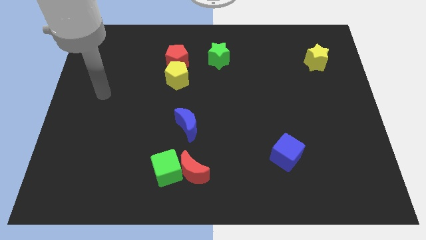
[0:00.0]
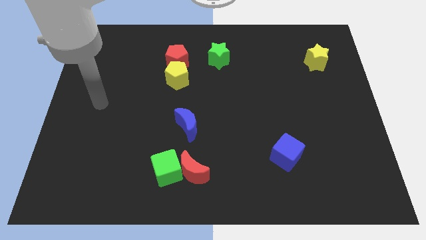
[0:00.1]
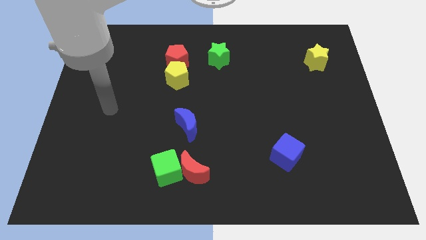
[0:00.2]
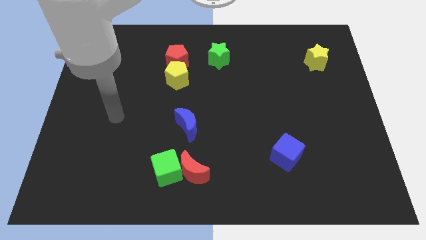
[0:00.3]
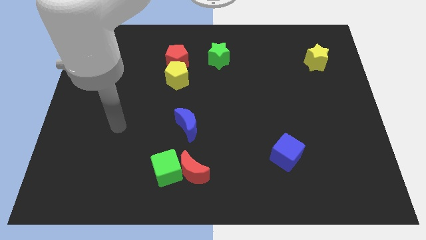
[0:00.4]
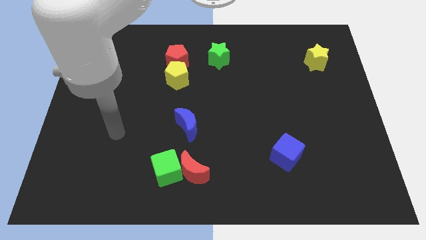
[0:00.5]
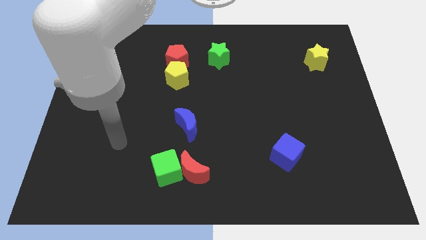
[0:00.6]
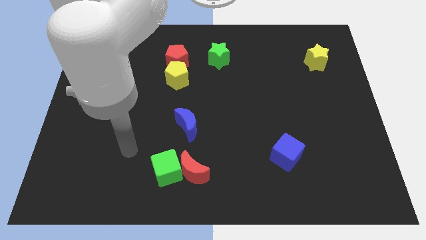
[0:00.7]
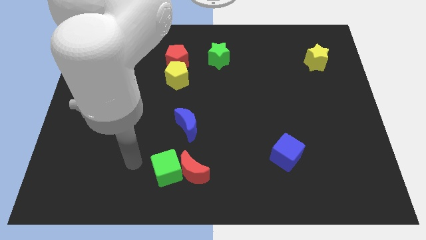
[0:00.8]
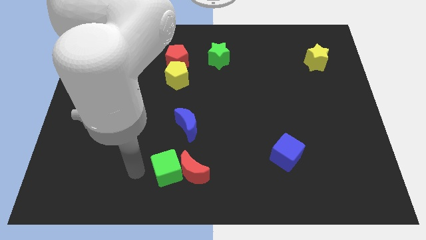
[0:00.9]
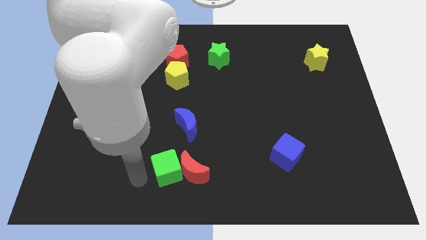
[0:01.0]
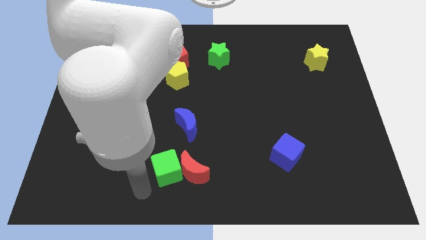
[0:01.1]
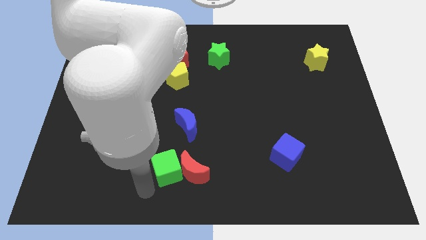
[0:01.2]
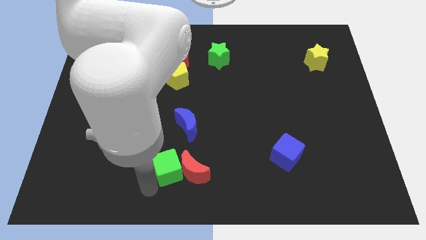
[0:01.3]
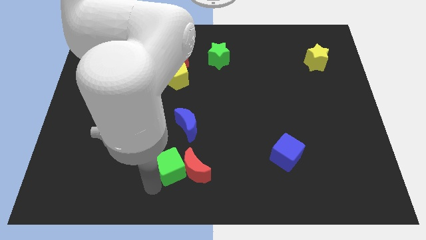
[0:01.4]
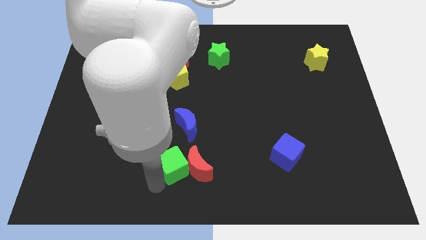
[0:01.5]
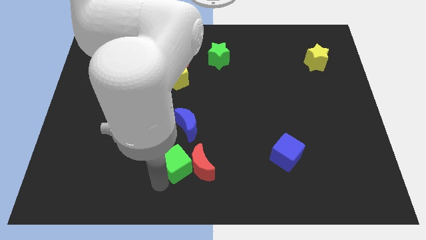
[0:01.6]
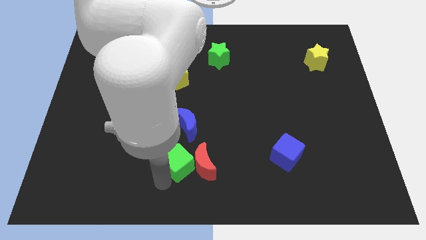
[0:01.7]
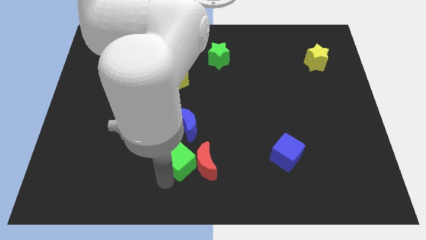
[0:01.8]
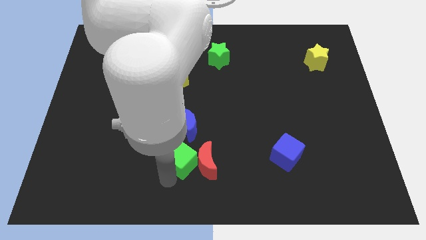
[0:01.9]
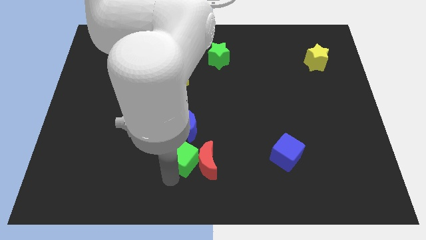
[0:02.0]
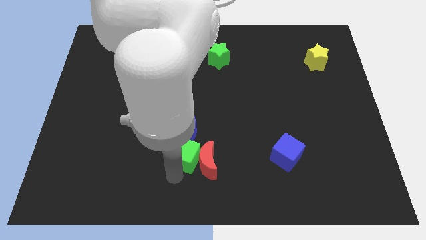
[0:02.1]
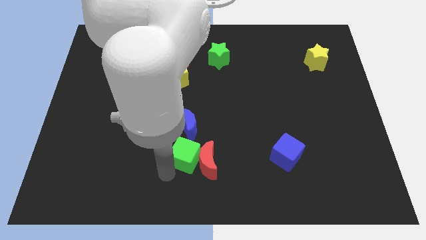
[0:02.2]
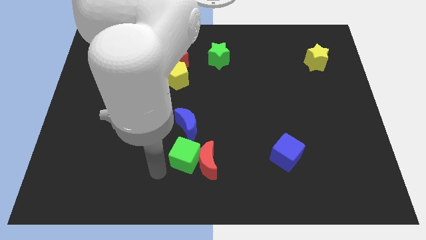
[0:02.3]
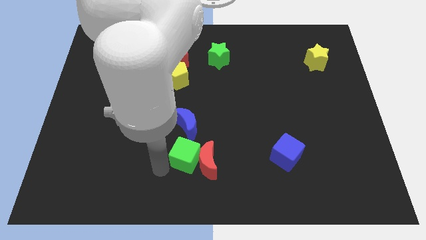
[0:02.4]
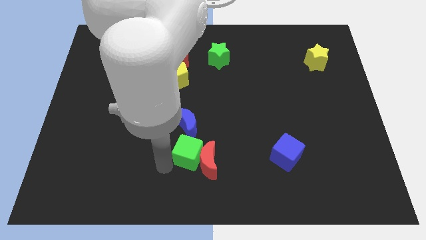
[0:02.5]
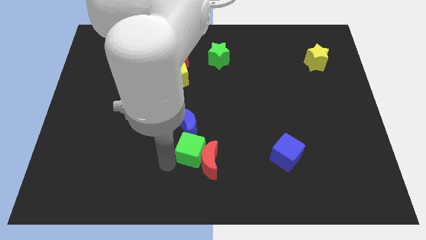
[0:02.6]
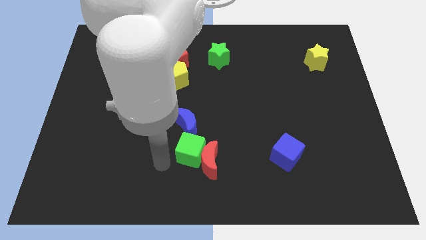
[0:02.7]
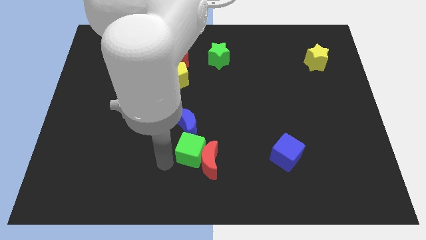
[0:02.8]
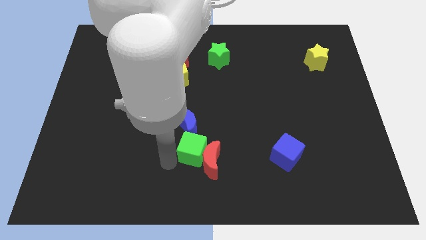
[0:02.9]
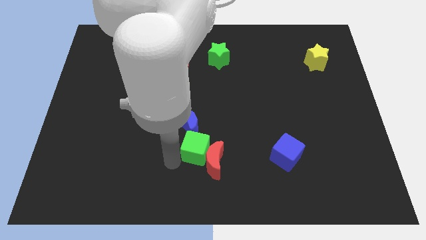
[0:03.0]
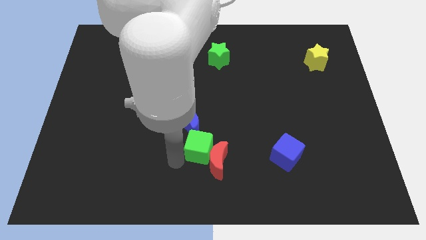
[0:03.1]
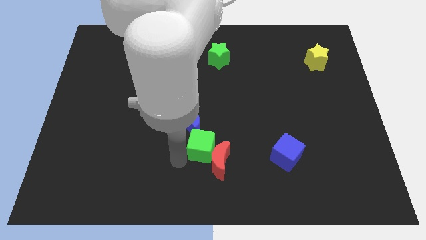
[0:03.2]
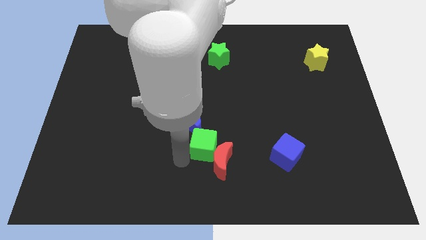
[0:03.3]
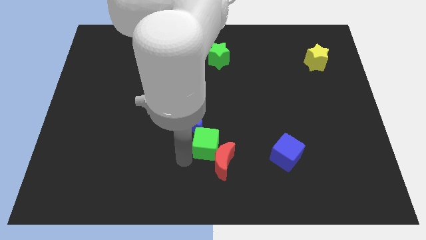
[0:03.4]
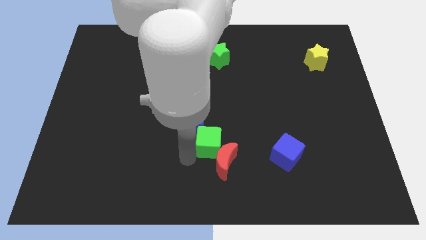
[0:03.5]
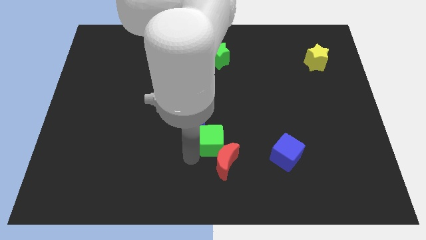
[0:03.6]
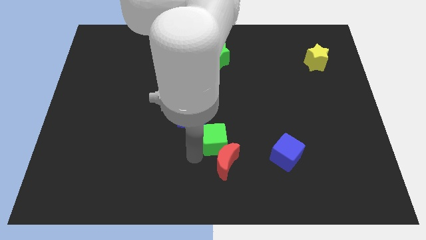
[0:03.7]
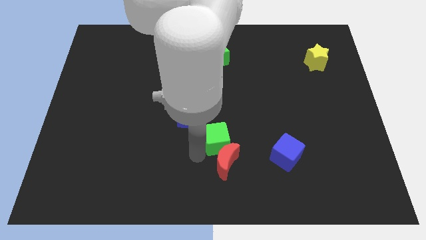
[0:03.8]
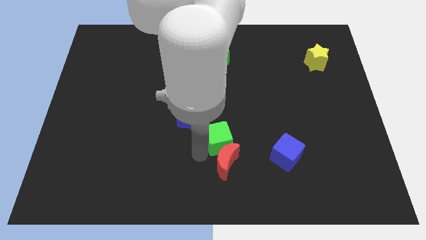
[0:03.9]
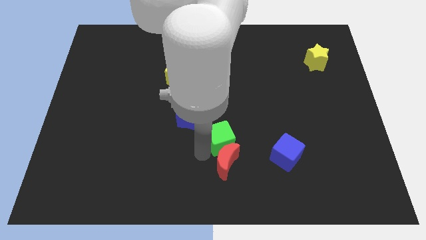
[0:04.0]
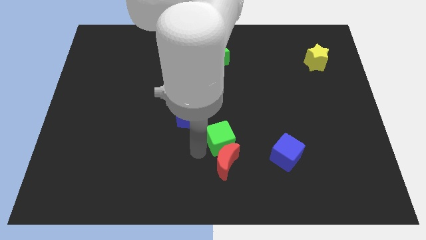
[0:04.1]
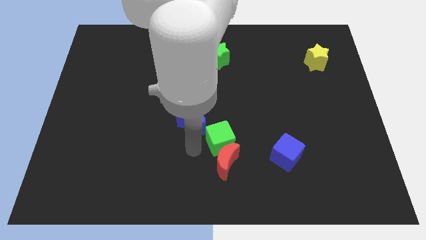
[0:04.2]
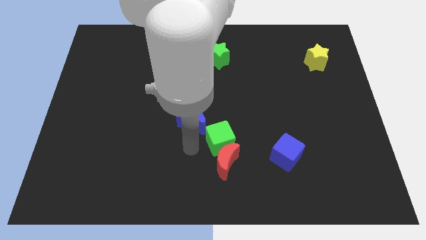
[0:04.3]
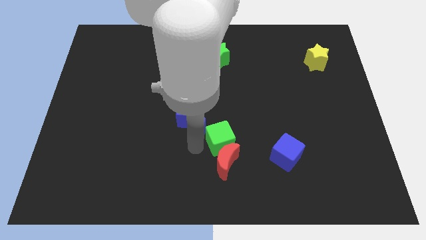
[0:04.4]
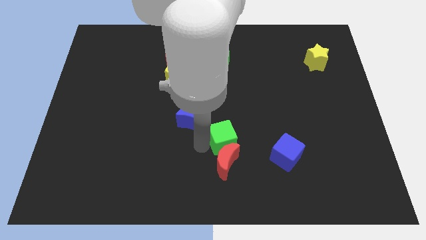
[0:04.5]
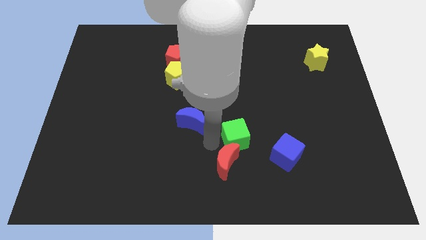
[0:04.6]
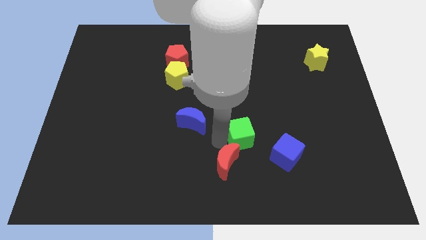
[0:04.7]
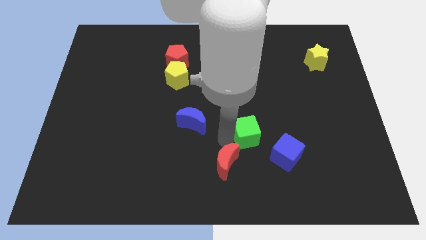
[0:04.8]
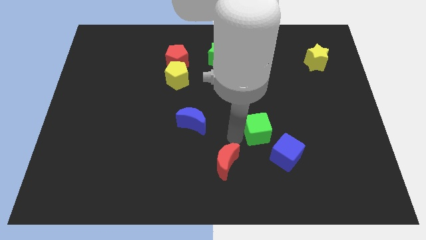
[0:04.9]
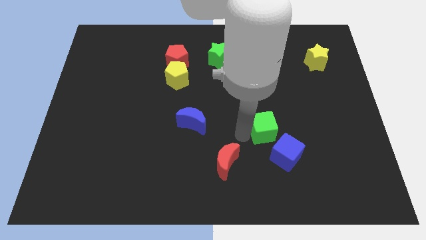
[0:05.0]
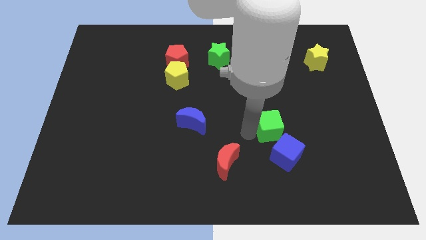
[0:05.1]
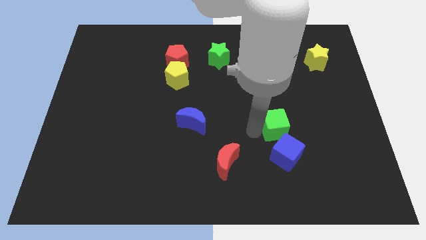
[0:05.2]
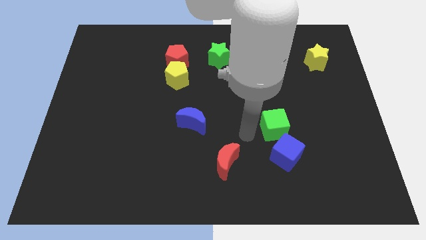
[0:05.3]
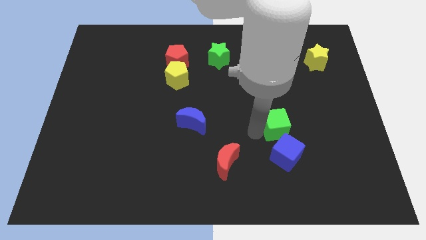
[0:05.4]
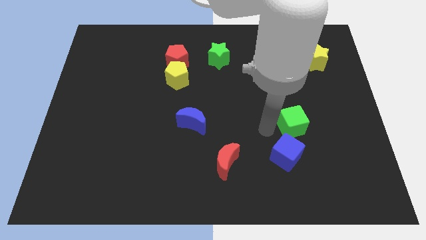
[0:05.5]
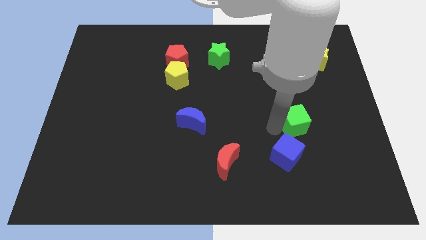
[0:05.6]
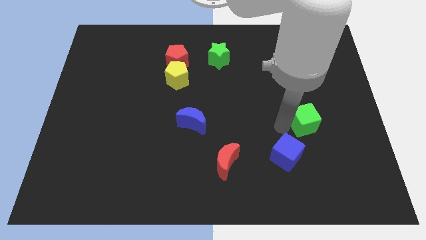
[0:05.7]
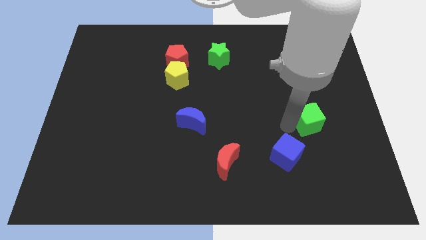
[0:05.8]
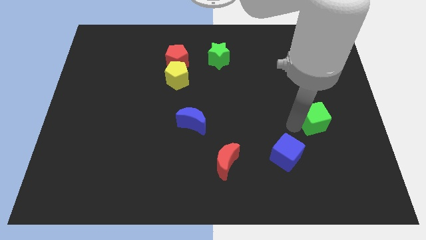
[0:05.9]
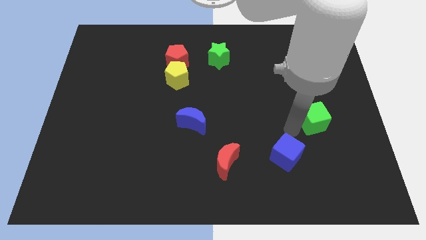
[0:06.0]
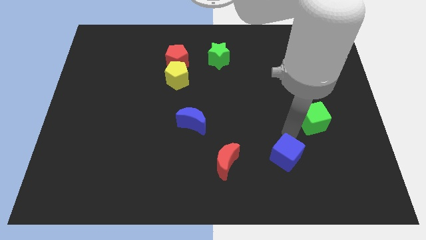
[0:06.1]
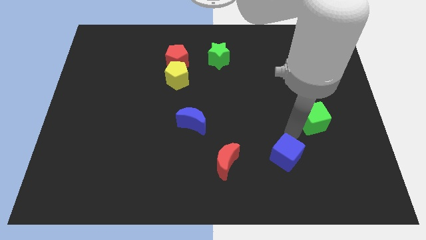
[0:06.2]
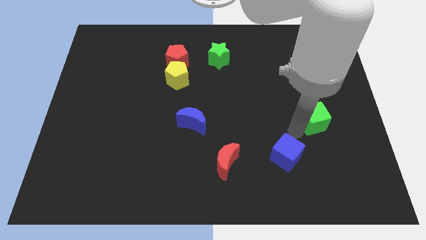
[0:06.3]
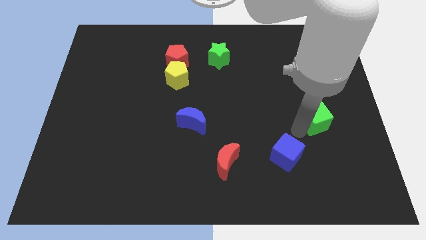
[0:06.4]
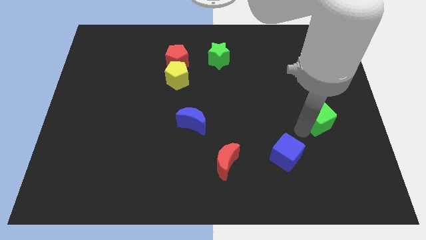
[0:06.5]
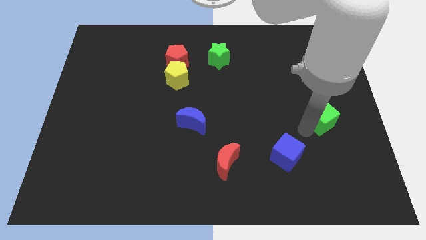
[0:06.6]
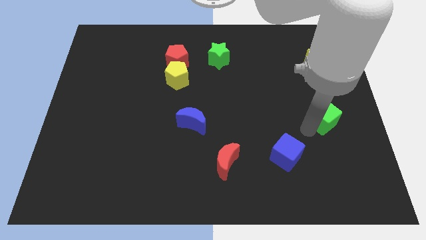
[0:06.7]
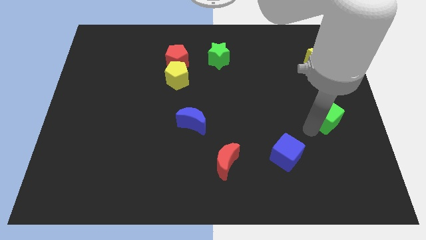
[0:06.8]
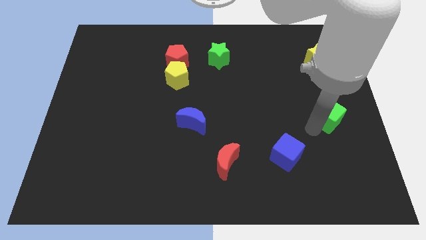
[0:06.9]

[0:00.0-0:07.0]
move the green cube to the right side

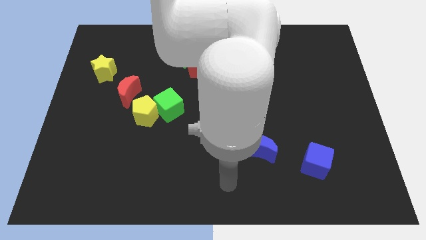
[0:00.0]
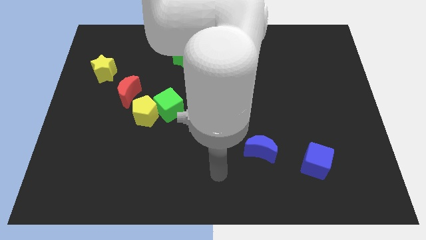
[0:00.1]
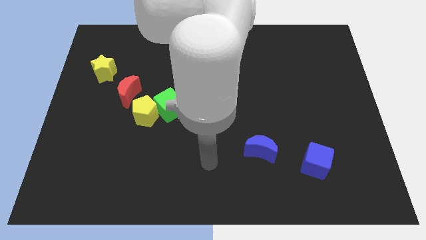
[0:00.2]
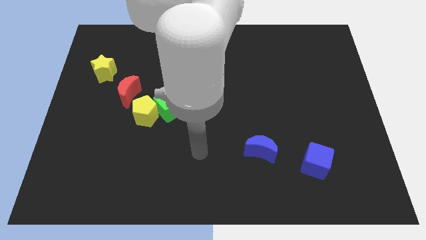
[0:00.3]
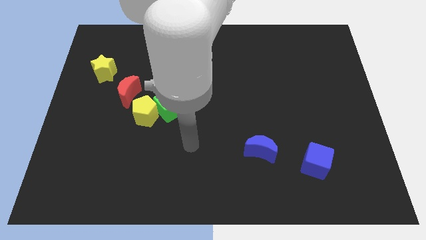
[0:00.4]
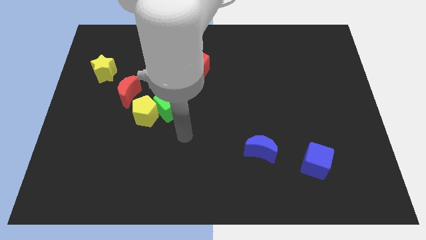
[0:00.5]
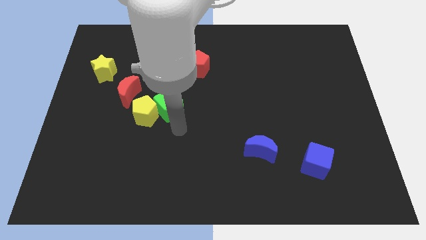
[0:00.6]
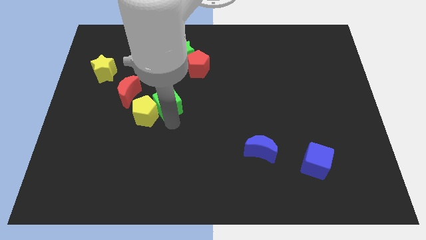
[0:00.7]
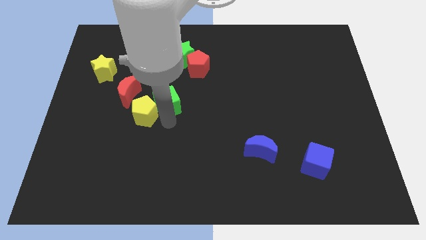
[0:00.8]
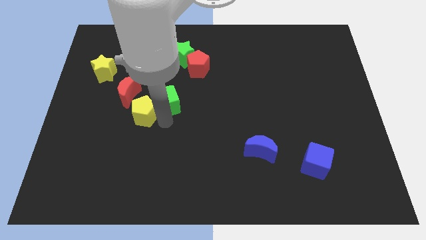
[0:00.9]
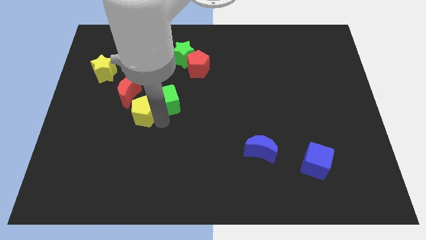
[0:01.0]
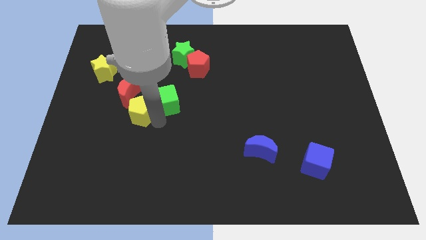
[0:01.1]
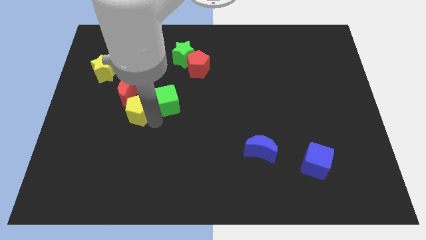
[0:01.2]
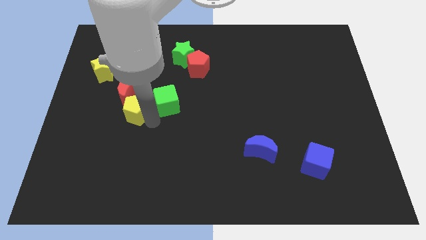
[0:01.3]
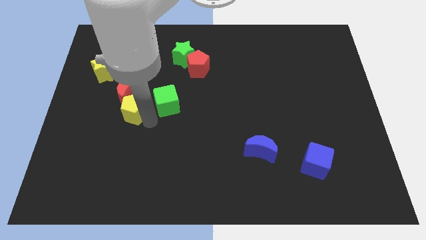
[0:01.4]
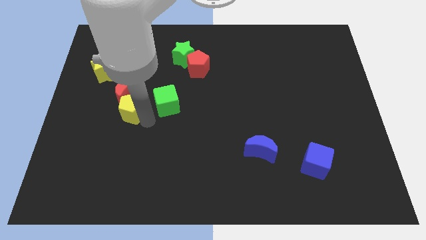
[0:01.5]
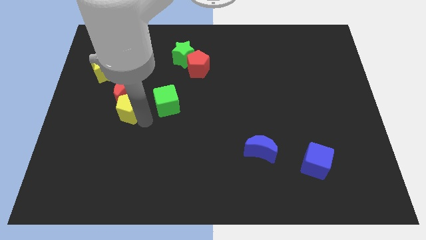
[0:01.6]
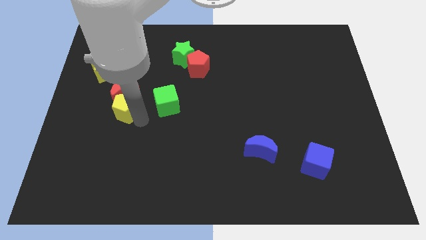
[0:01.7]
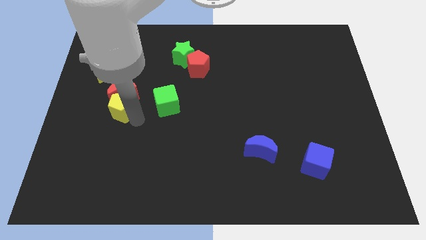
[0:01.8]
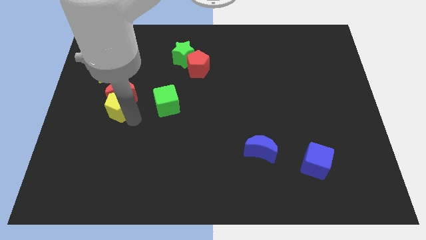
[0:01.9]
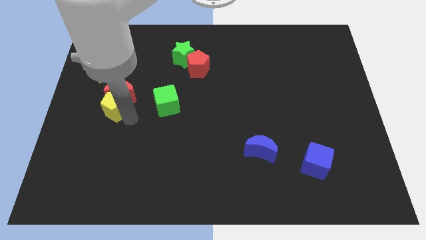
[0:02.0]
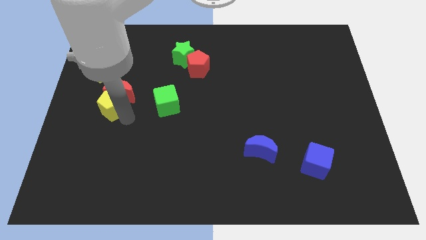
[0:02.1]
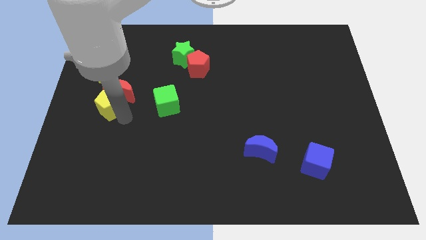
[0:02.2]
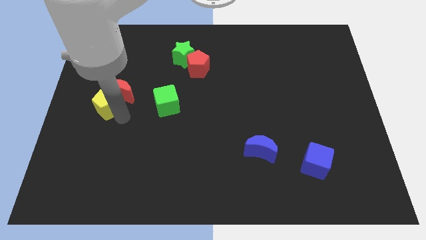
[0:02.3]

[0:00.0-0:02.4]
push the yellow pentagon to the left side
